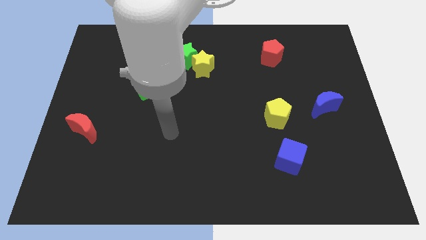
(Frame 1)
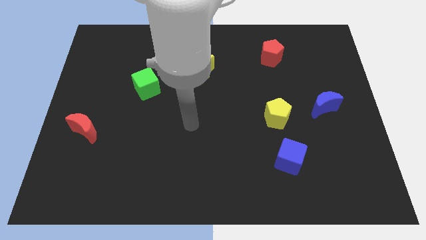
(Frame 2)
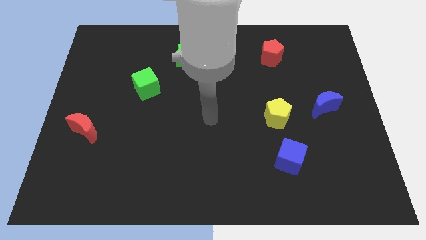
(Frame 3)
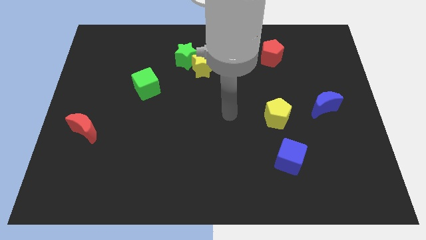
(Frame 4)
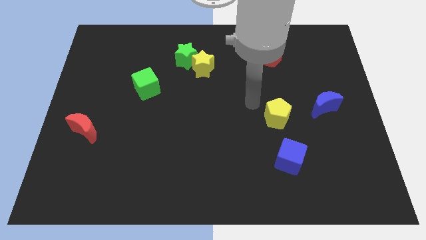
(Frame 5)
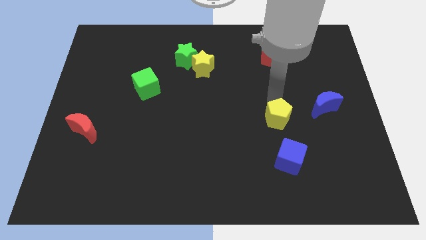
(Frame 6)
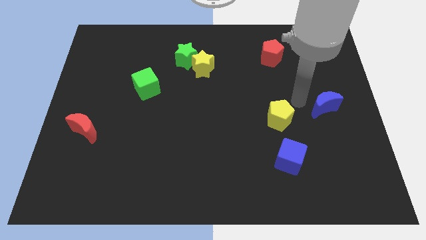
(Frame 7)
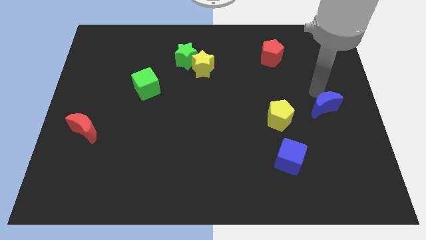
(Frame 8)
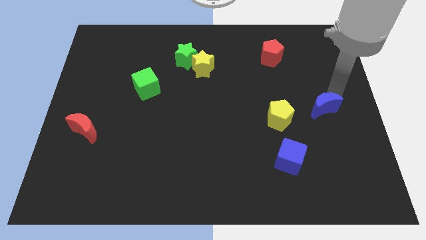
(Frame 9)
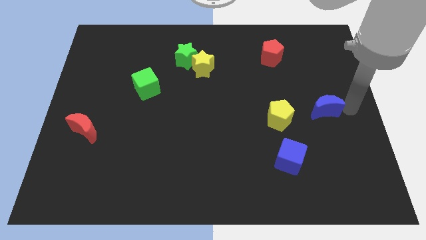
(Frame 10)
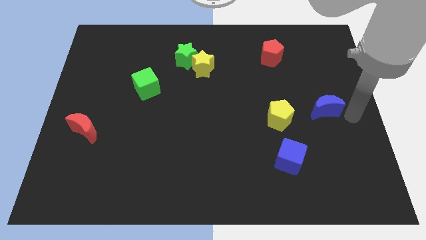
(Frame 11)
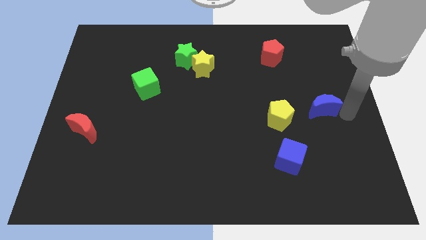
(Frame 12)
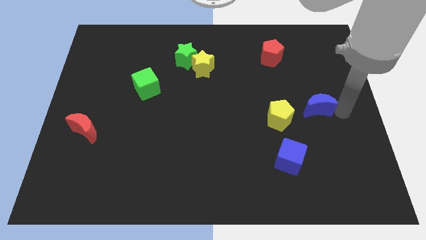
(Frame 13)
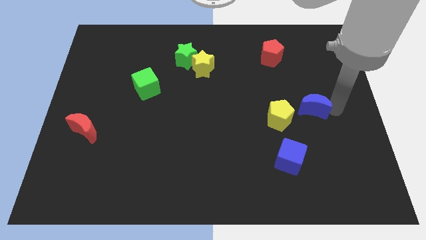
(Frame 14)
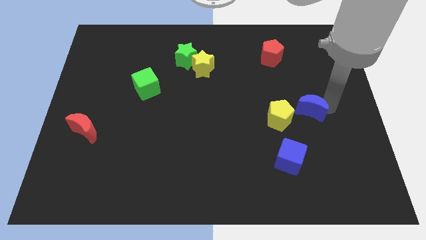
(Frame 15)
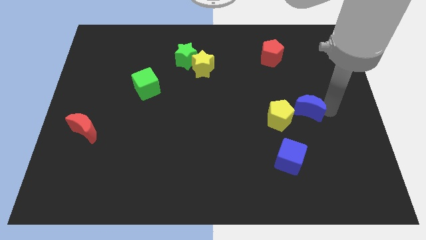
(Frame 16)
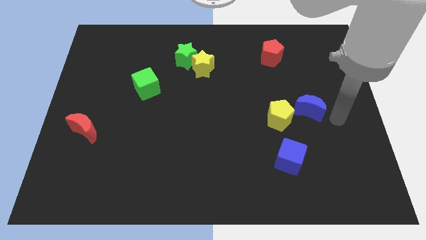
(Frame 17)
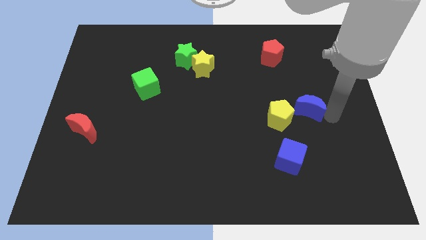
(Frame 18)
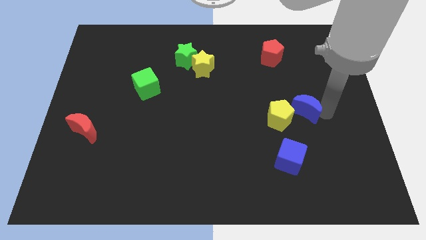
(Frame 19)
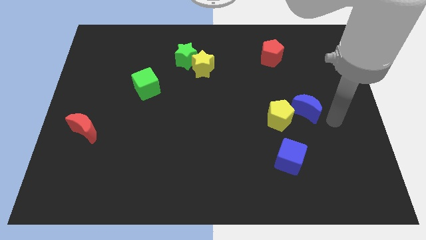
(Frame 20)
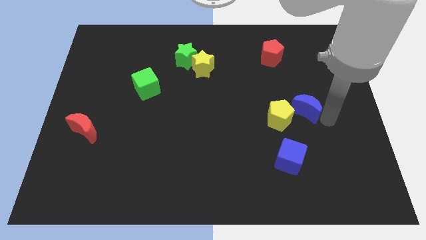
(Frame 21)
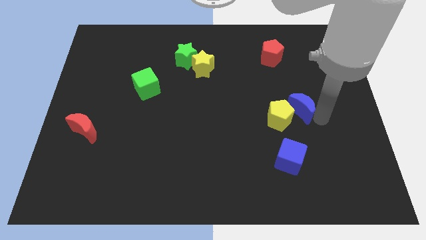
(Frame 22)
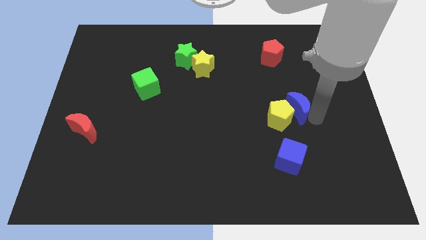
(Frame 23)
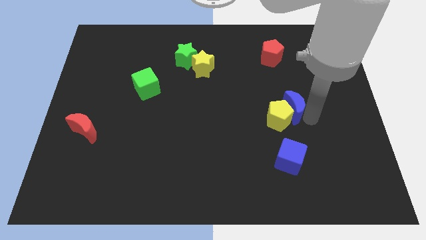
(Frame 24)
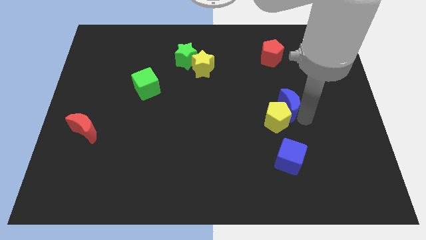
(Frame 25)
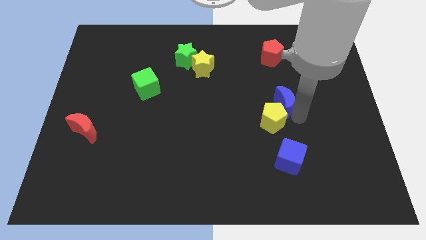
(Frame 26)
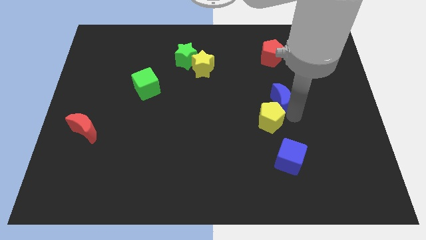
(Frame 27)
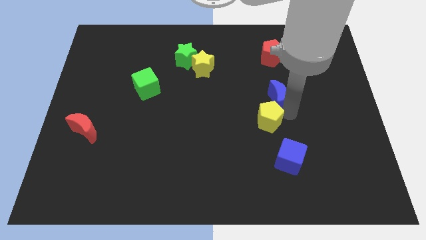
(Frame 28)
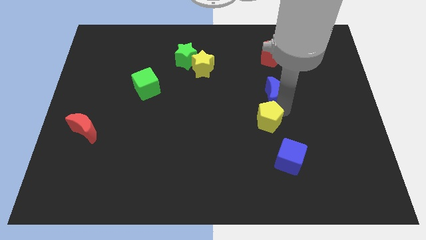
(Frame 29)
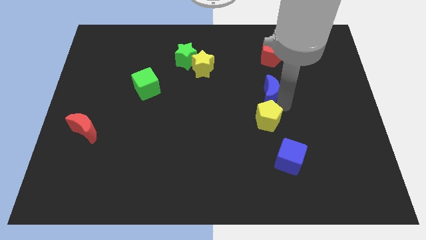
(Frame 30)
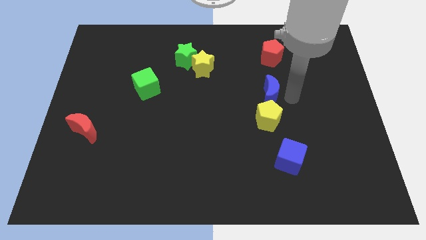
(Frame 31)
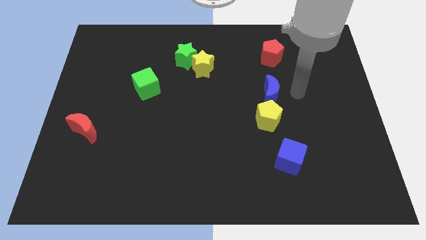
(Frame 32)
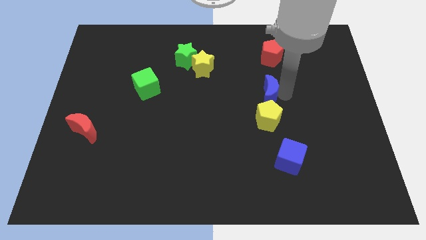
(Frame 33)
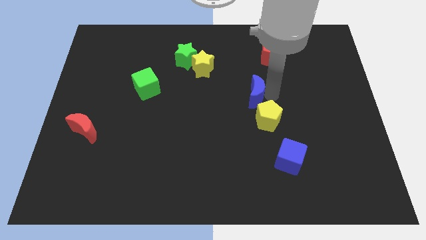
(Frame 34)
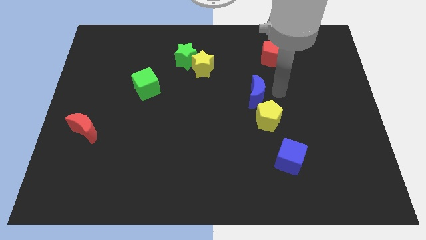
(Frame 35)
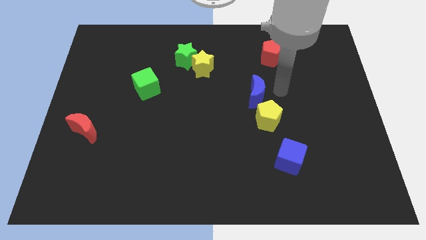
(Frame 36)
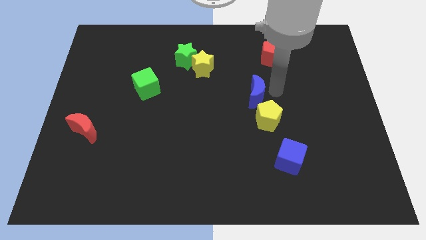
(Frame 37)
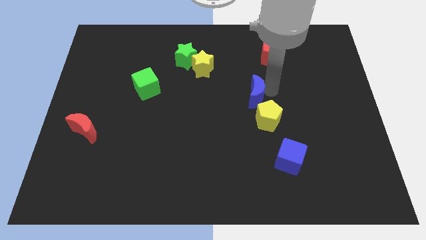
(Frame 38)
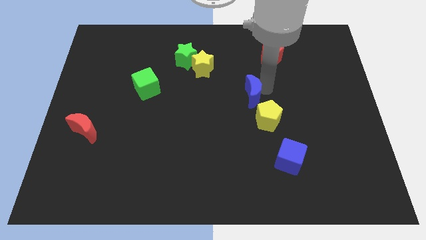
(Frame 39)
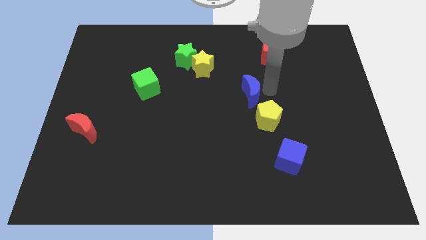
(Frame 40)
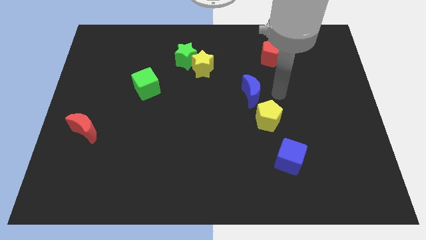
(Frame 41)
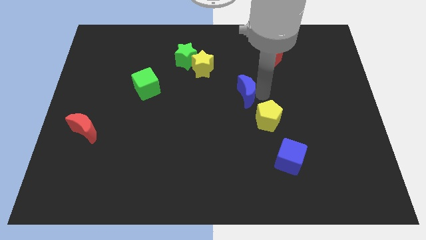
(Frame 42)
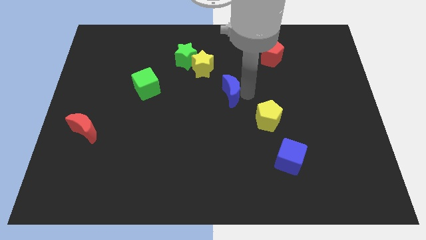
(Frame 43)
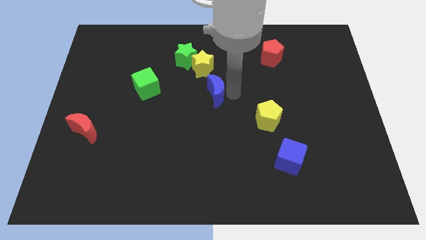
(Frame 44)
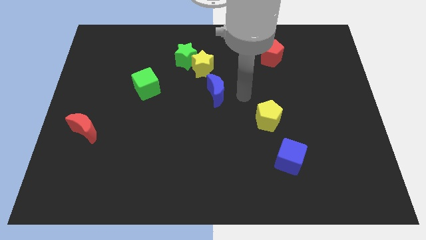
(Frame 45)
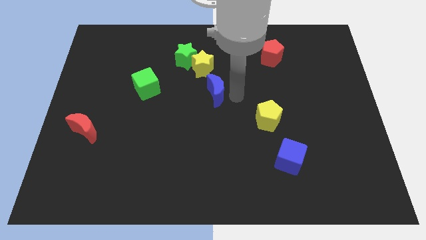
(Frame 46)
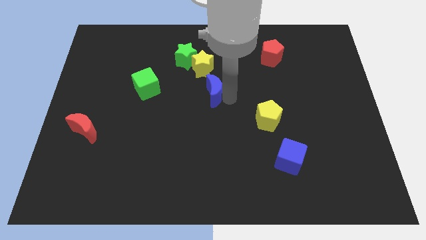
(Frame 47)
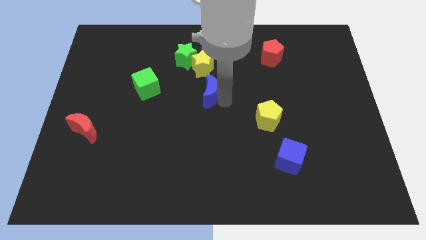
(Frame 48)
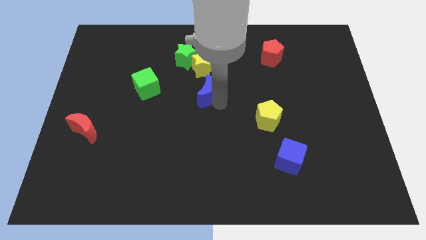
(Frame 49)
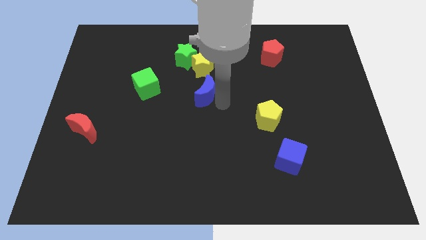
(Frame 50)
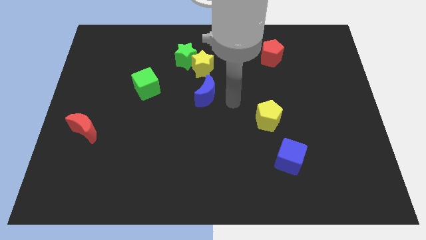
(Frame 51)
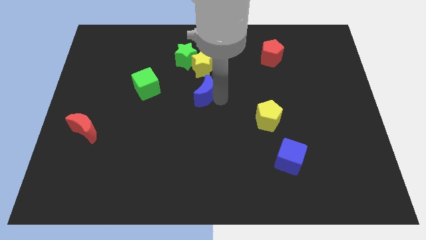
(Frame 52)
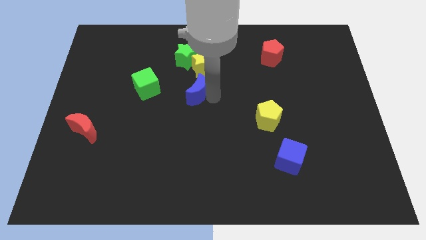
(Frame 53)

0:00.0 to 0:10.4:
slide the blue moon to the bottom side of the green star

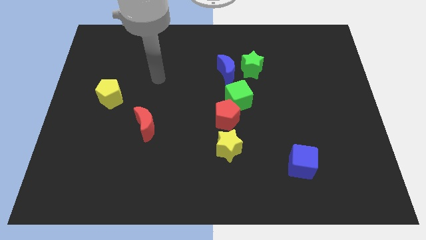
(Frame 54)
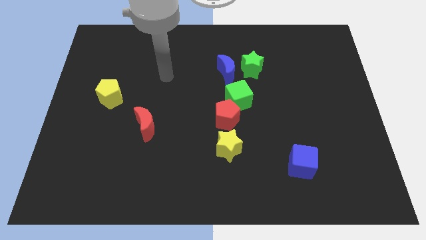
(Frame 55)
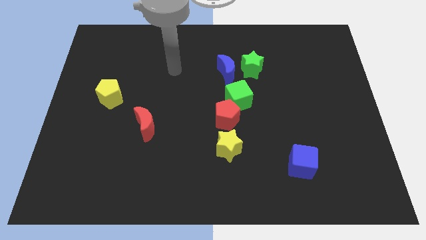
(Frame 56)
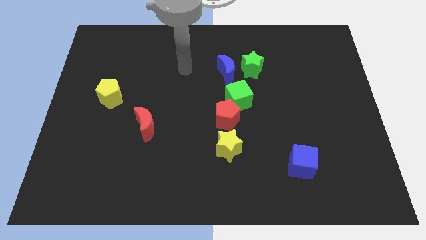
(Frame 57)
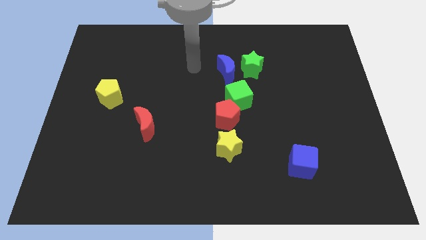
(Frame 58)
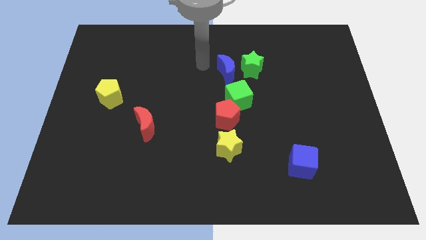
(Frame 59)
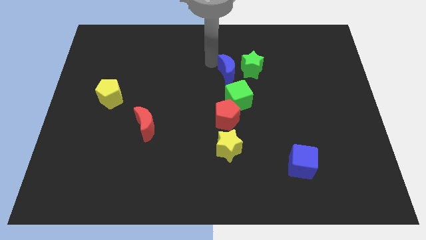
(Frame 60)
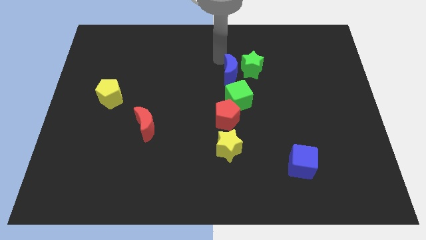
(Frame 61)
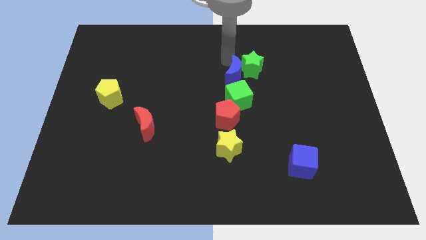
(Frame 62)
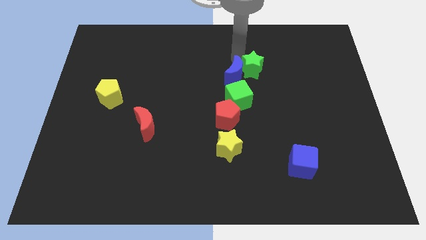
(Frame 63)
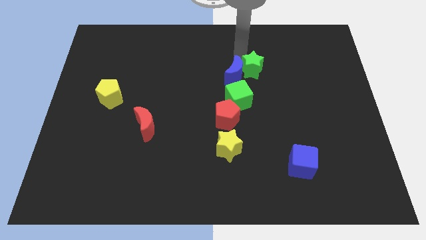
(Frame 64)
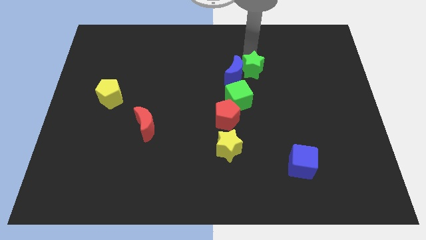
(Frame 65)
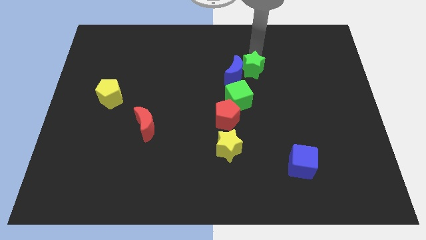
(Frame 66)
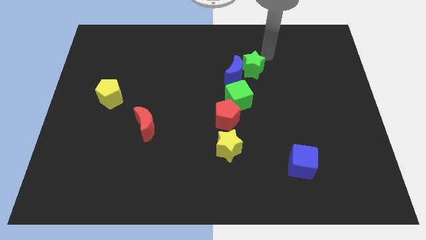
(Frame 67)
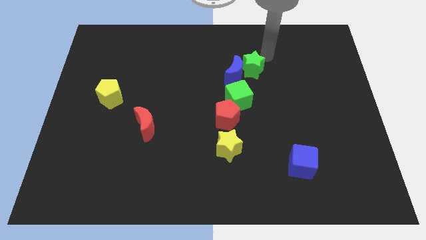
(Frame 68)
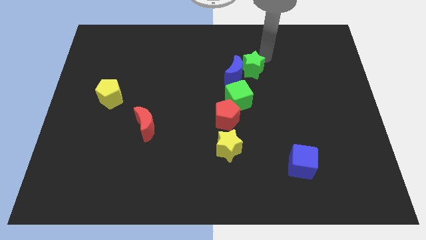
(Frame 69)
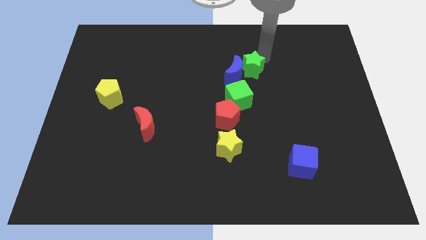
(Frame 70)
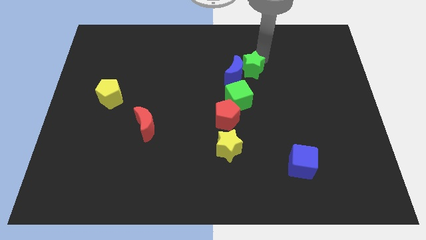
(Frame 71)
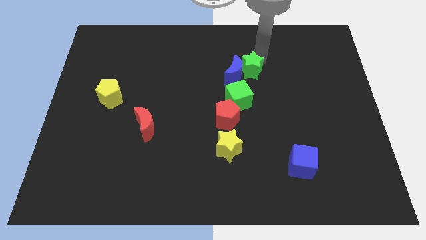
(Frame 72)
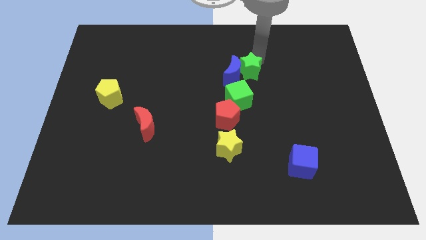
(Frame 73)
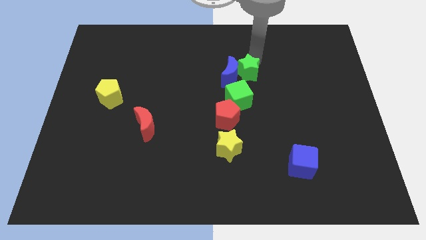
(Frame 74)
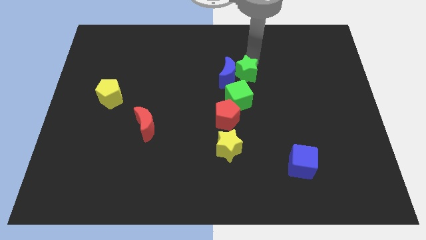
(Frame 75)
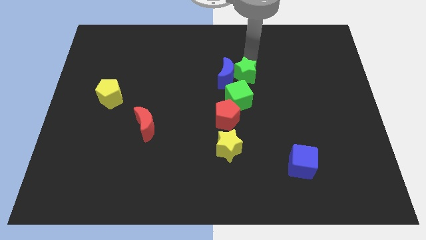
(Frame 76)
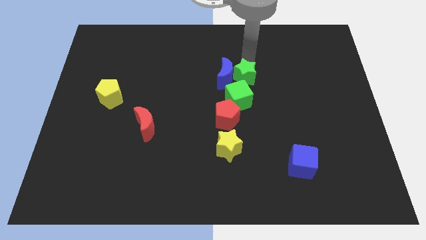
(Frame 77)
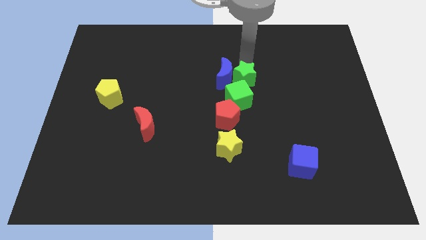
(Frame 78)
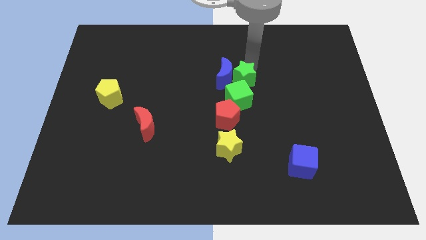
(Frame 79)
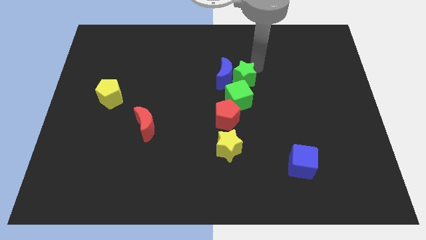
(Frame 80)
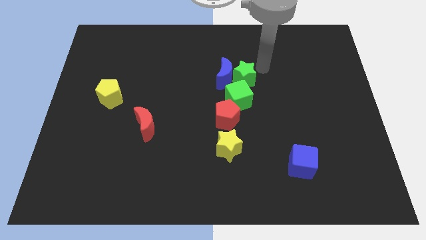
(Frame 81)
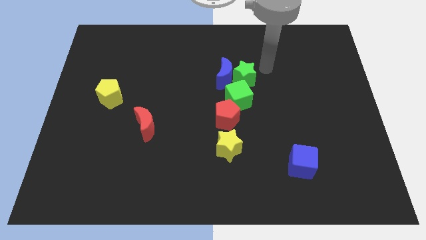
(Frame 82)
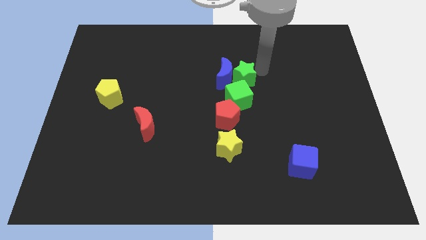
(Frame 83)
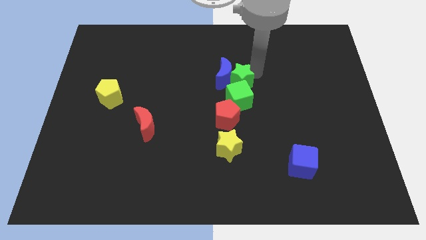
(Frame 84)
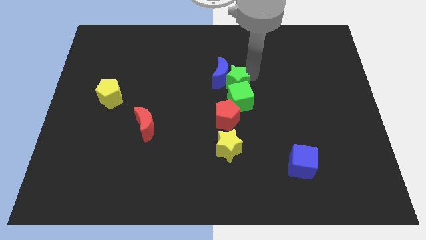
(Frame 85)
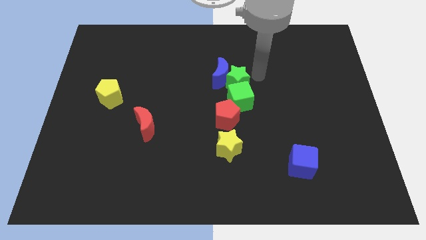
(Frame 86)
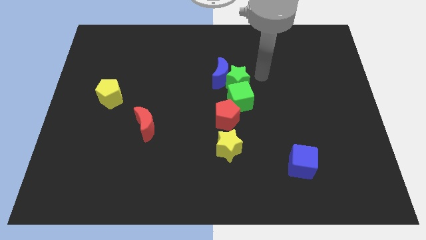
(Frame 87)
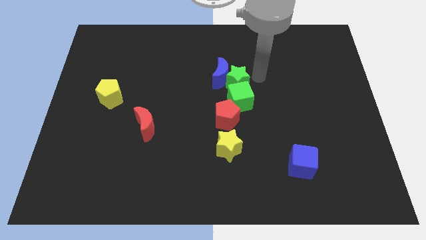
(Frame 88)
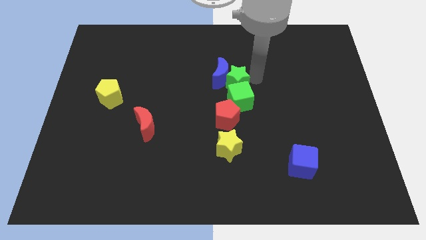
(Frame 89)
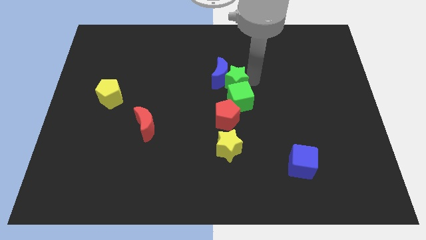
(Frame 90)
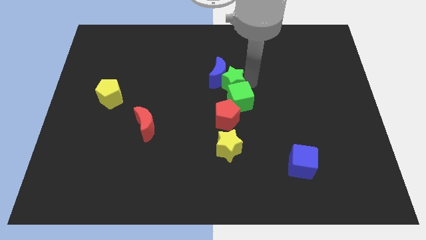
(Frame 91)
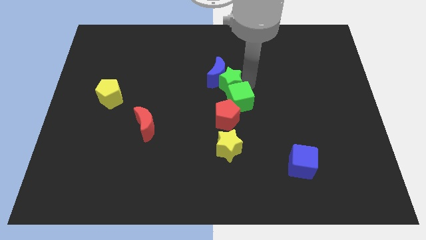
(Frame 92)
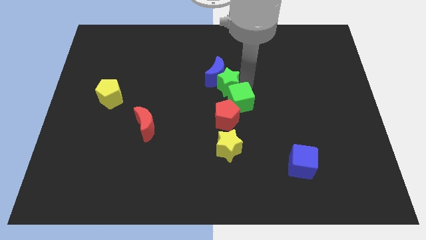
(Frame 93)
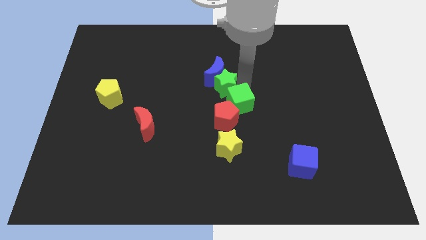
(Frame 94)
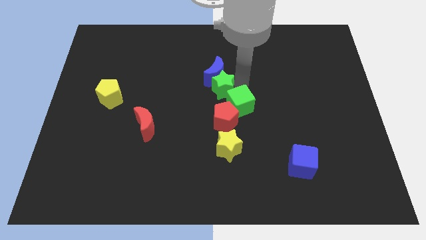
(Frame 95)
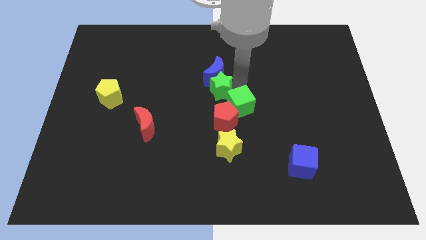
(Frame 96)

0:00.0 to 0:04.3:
slide the green star left of the green cube
